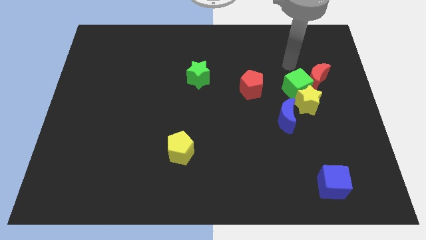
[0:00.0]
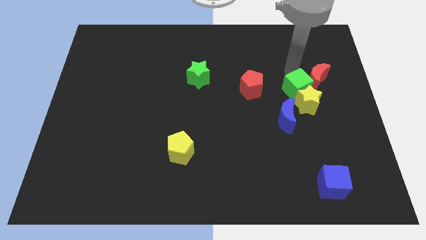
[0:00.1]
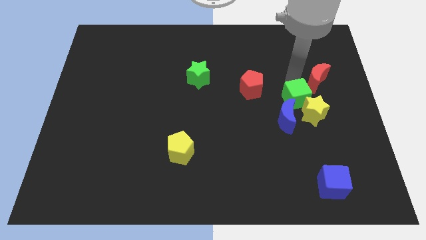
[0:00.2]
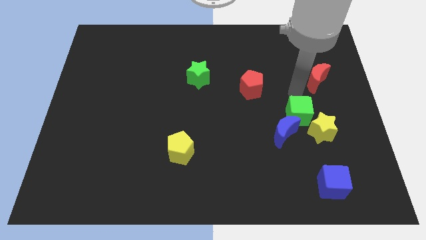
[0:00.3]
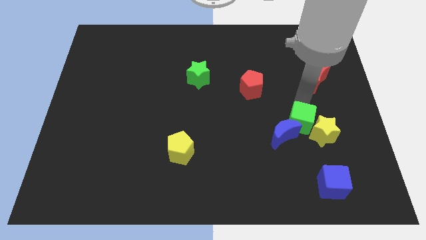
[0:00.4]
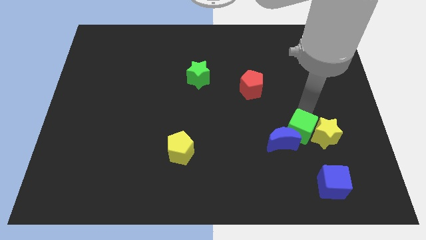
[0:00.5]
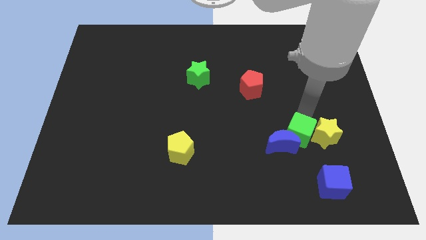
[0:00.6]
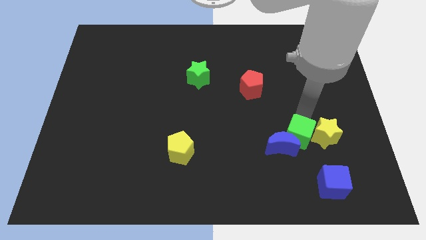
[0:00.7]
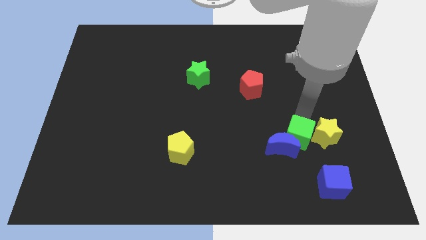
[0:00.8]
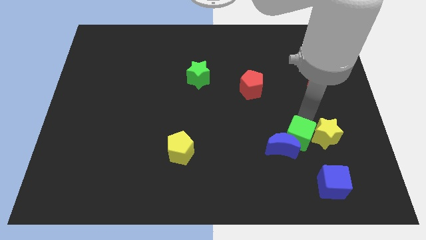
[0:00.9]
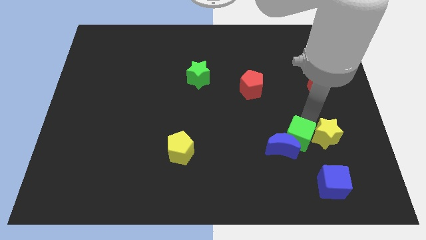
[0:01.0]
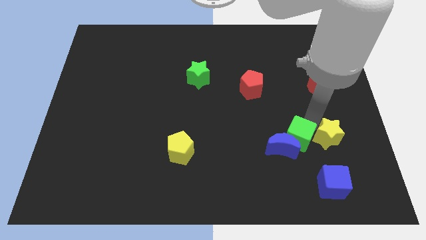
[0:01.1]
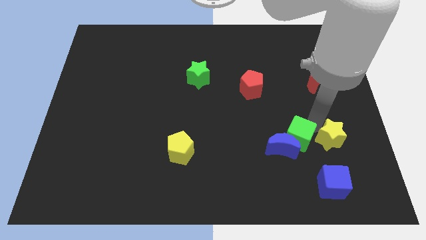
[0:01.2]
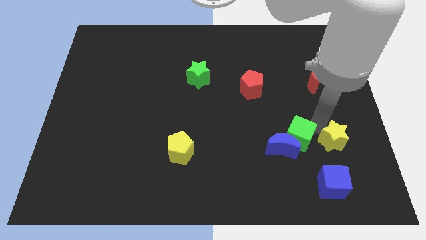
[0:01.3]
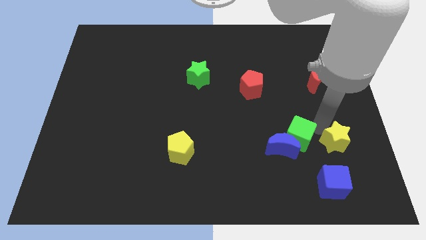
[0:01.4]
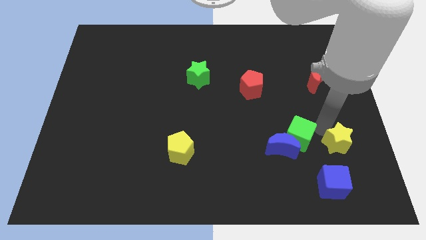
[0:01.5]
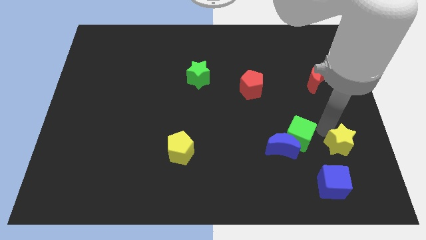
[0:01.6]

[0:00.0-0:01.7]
separate the yellow star from the green cube, blue moon, and red moon

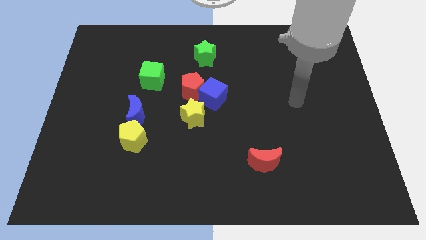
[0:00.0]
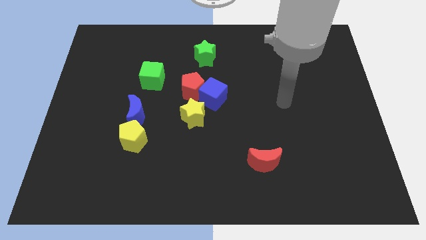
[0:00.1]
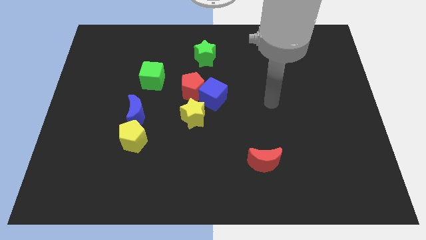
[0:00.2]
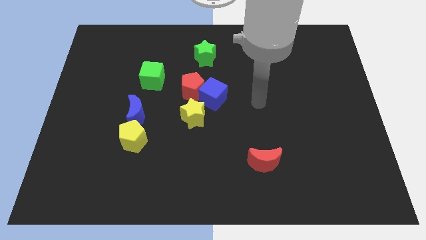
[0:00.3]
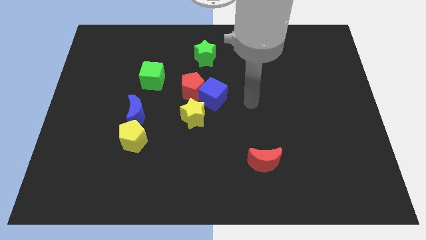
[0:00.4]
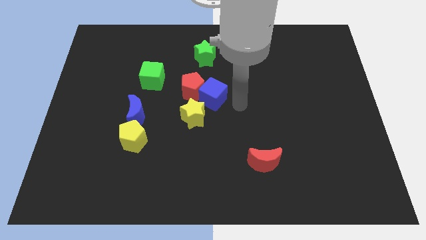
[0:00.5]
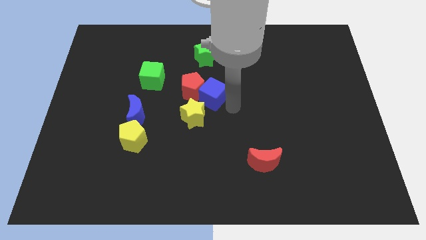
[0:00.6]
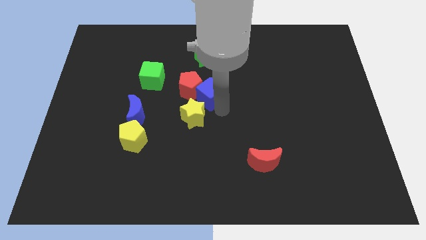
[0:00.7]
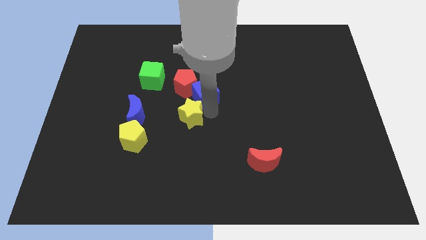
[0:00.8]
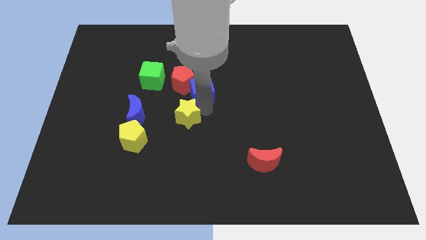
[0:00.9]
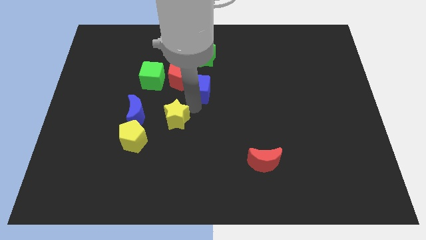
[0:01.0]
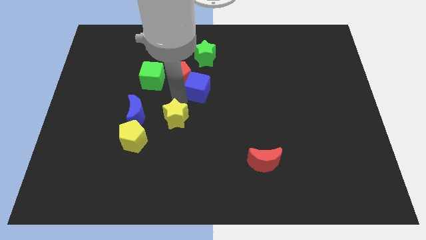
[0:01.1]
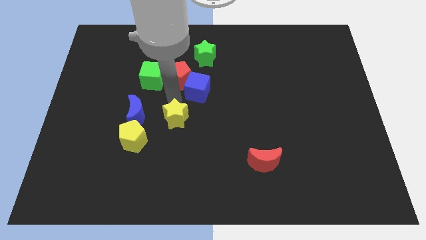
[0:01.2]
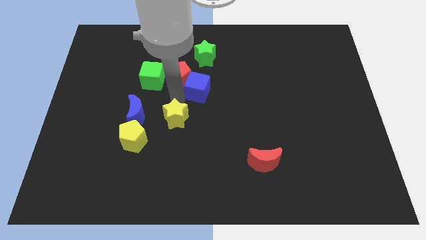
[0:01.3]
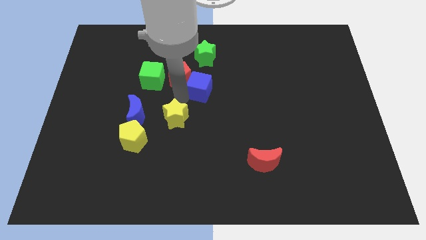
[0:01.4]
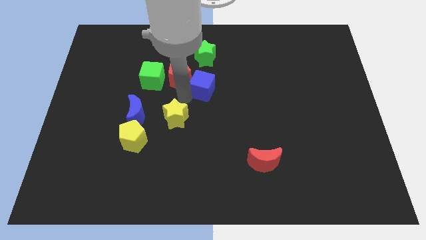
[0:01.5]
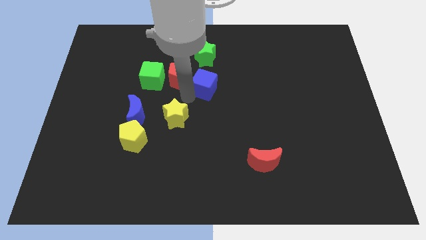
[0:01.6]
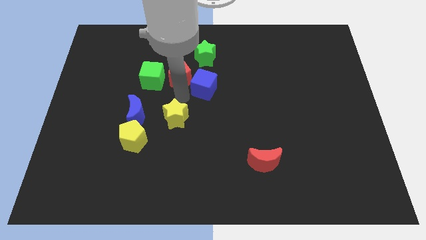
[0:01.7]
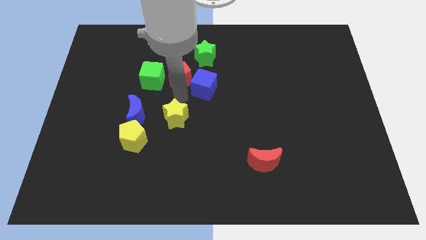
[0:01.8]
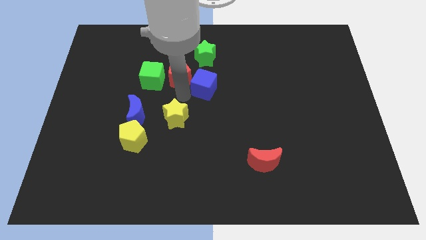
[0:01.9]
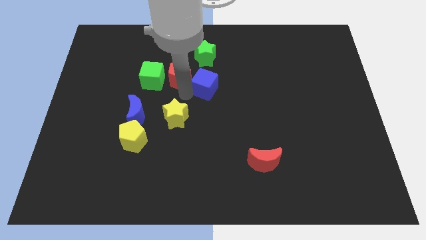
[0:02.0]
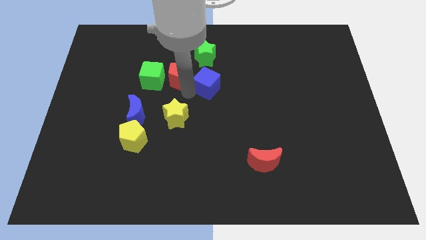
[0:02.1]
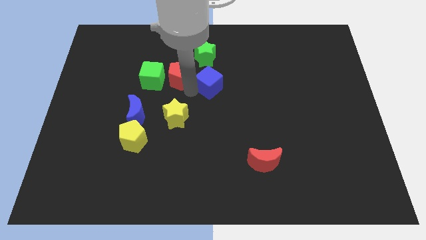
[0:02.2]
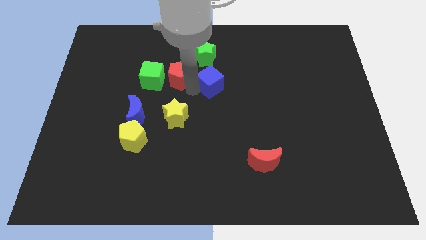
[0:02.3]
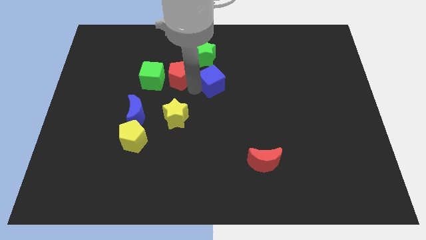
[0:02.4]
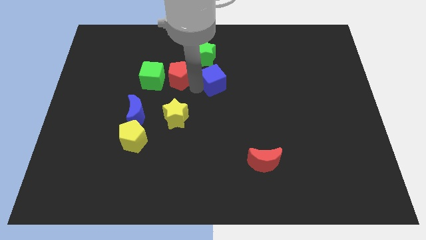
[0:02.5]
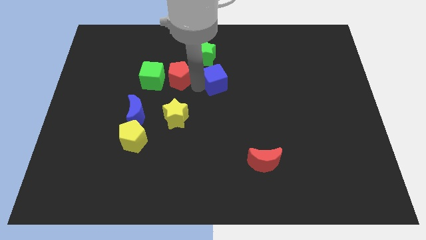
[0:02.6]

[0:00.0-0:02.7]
pull the blue cube apart from the red pentagon and yellow star

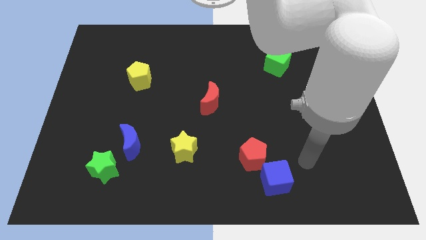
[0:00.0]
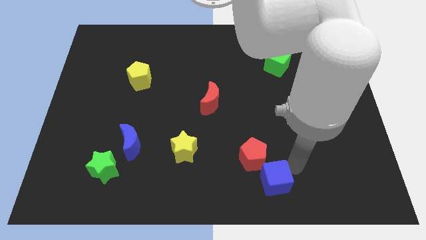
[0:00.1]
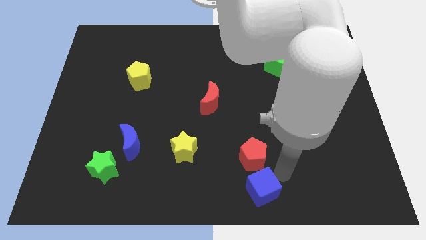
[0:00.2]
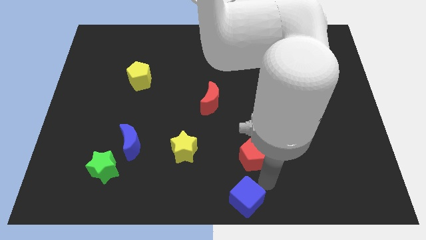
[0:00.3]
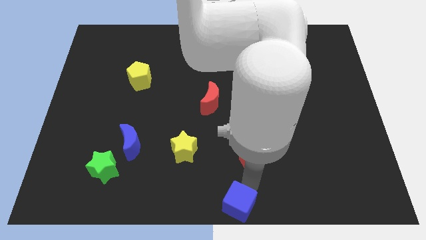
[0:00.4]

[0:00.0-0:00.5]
separate the red pentagon from the blue cube

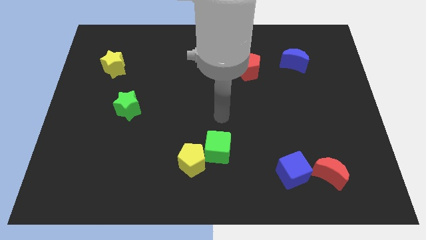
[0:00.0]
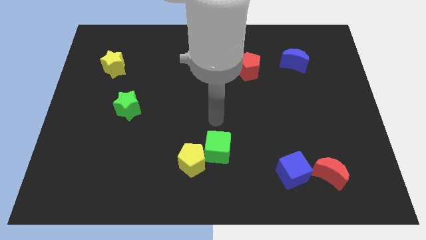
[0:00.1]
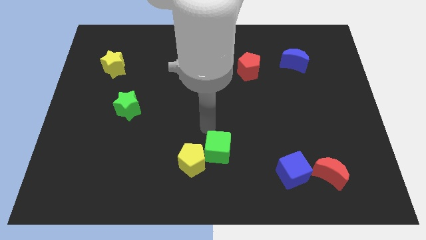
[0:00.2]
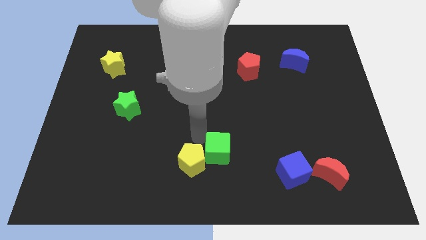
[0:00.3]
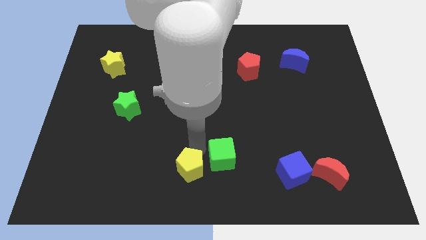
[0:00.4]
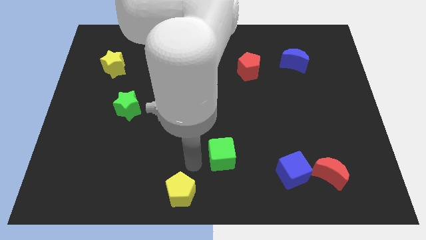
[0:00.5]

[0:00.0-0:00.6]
move the green cube away from the yellow pentagon

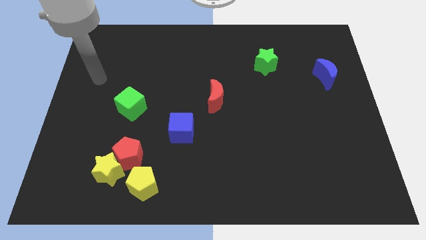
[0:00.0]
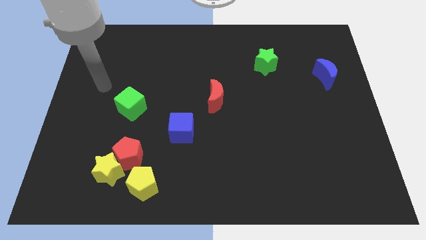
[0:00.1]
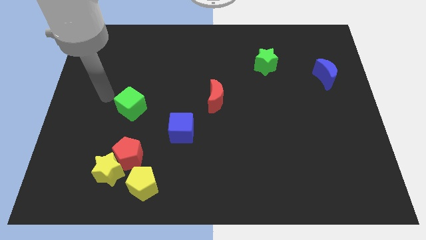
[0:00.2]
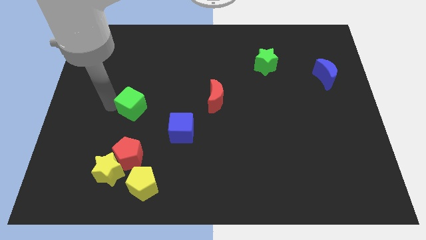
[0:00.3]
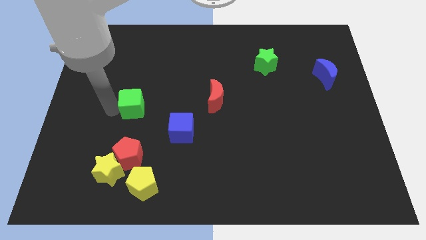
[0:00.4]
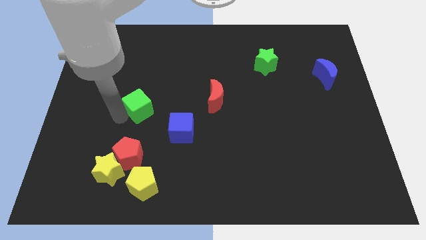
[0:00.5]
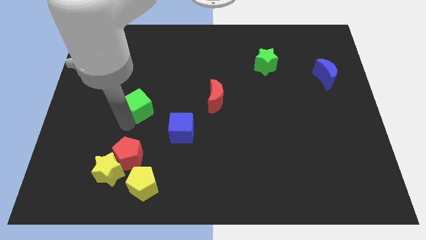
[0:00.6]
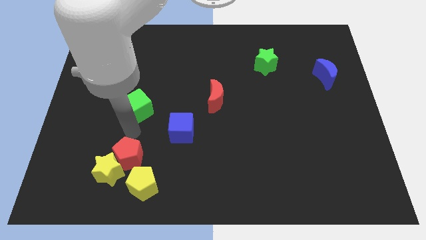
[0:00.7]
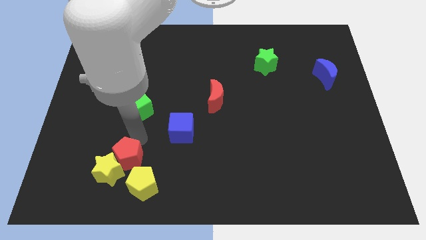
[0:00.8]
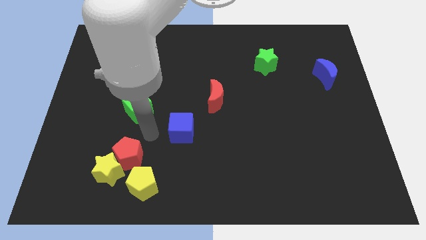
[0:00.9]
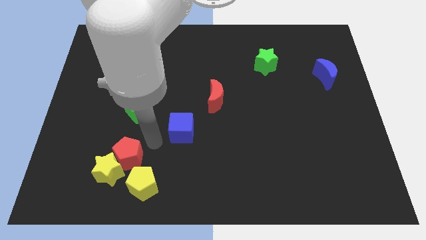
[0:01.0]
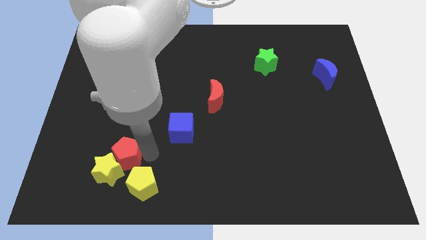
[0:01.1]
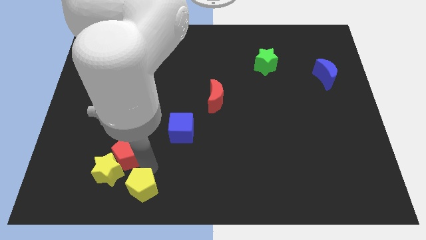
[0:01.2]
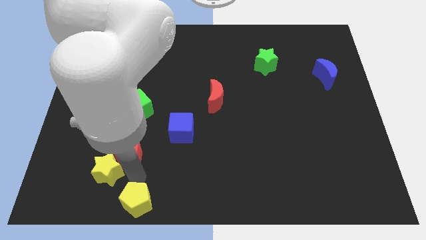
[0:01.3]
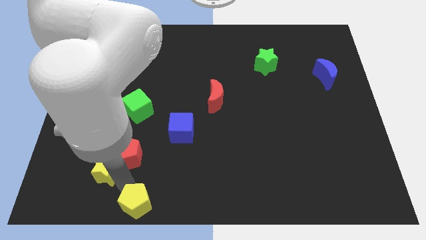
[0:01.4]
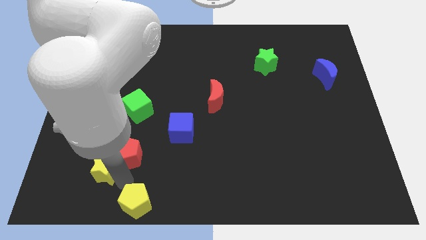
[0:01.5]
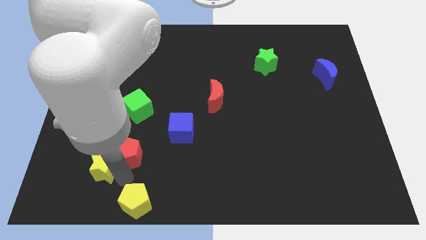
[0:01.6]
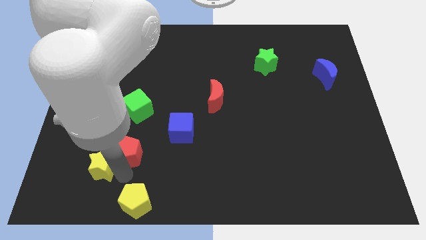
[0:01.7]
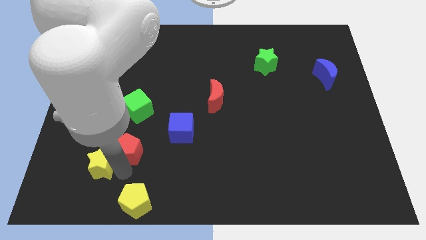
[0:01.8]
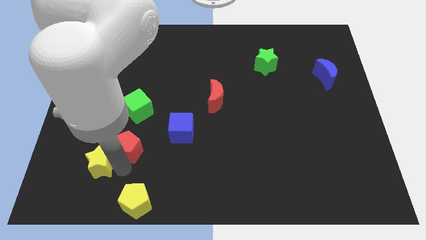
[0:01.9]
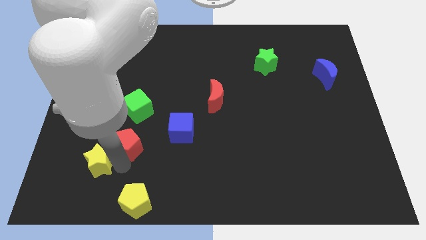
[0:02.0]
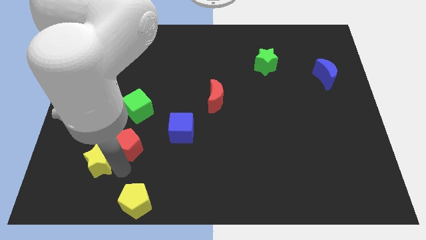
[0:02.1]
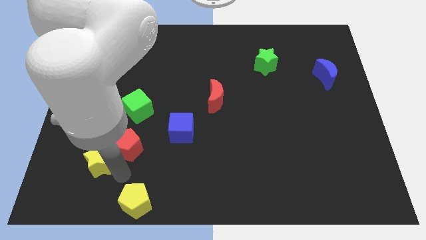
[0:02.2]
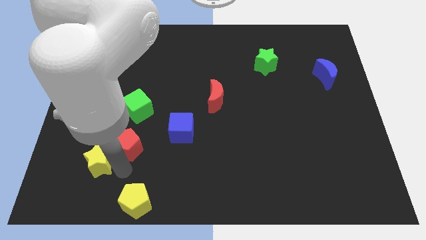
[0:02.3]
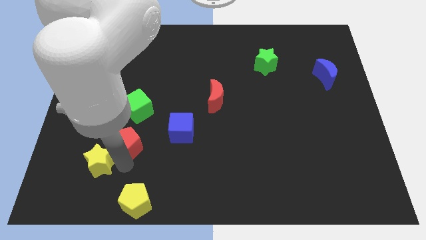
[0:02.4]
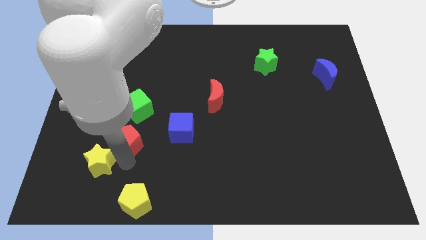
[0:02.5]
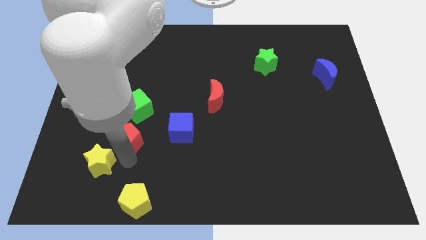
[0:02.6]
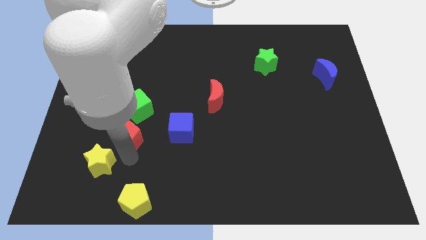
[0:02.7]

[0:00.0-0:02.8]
pull the red pentagon apart from the yellow star and yellow pentagon

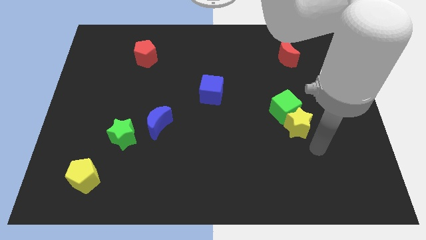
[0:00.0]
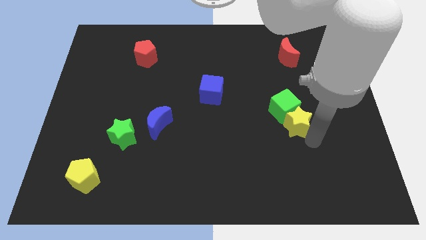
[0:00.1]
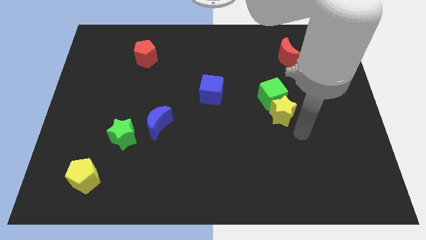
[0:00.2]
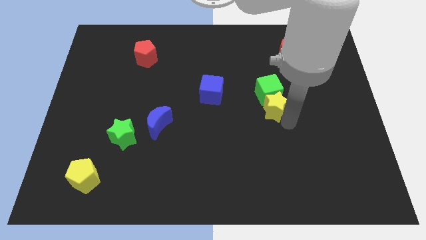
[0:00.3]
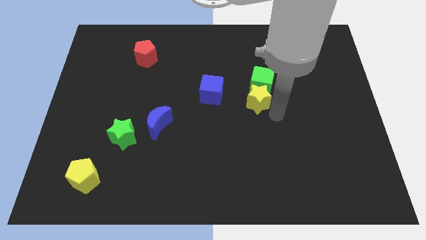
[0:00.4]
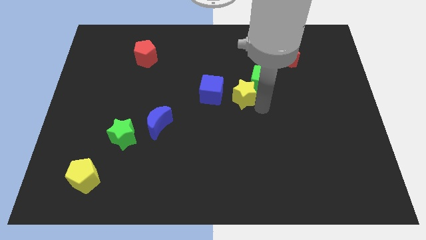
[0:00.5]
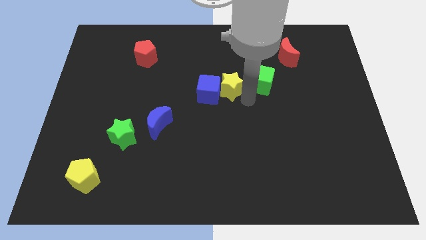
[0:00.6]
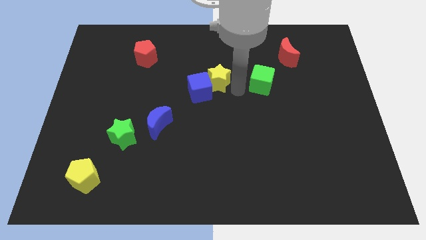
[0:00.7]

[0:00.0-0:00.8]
separate the green cube from the yellow star

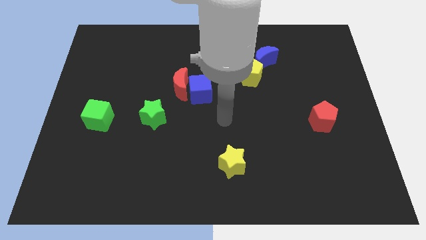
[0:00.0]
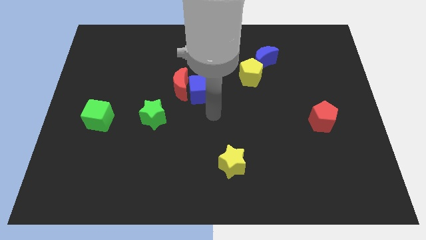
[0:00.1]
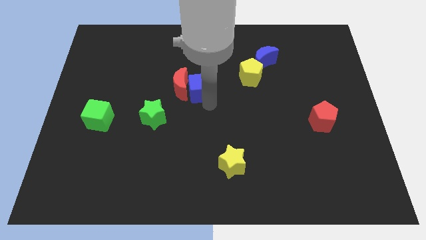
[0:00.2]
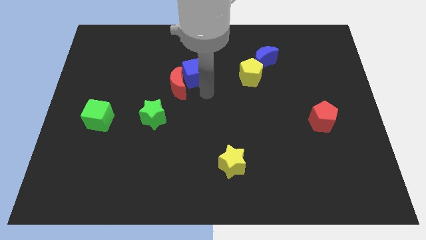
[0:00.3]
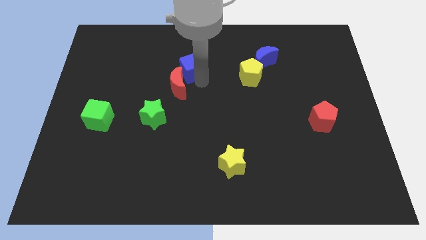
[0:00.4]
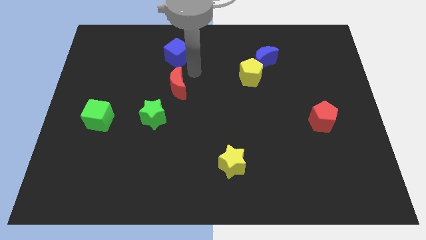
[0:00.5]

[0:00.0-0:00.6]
move the red moon away from the blue cube
